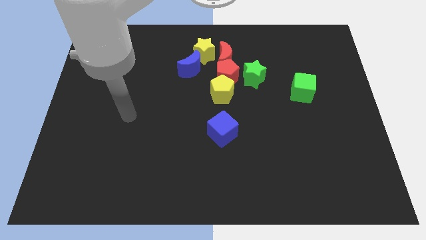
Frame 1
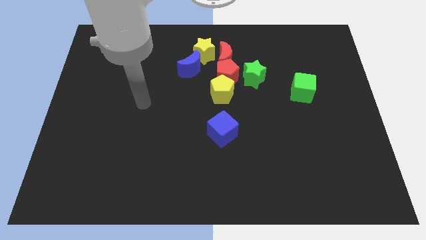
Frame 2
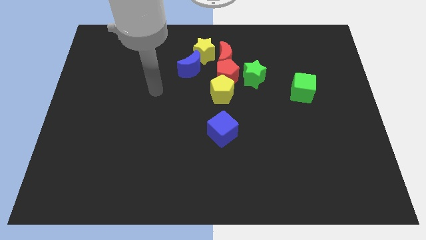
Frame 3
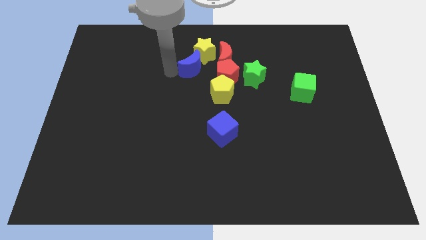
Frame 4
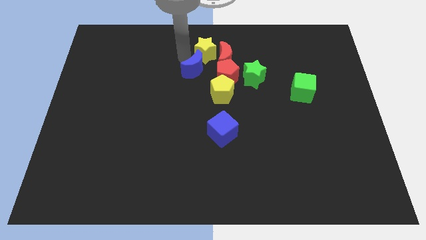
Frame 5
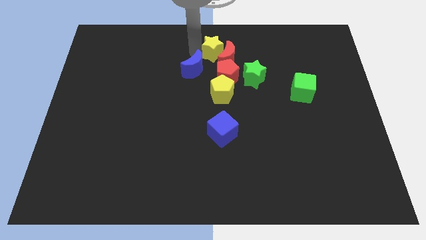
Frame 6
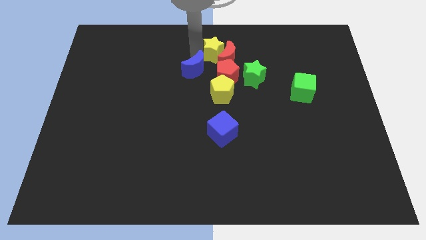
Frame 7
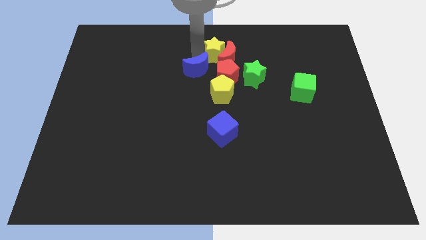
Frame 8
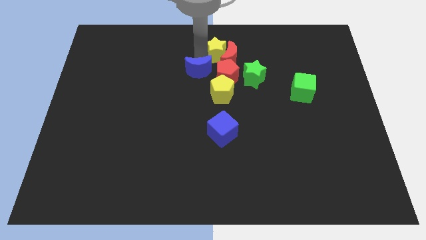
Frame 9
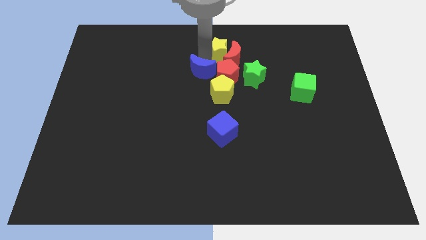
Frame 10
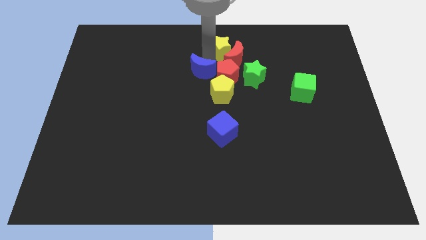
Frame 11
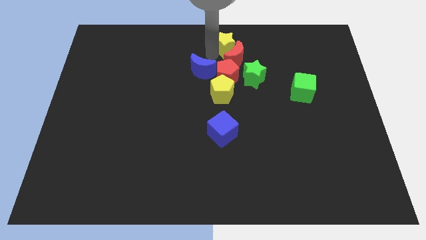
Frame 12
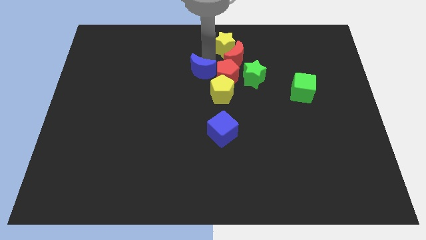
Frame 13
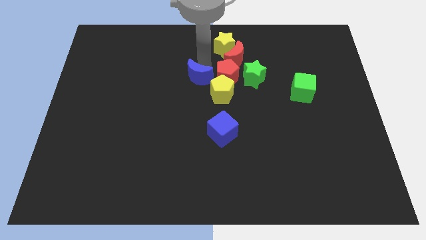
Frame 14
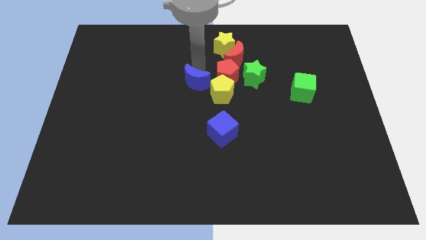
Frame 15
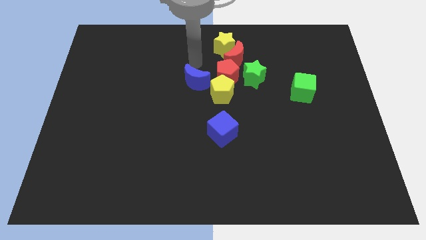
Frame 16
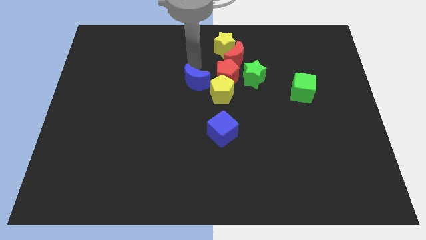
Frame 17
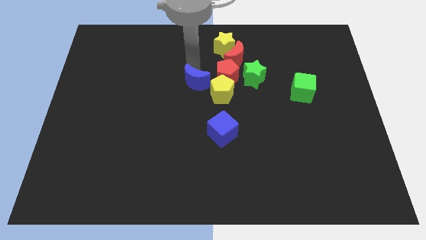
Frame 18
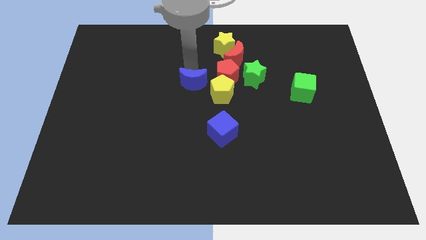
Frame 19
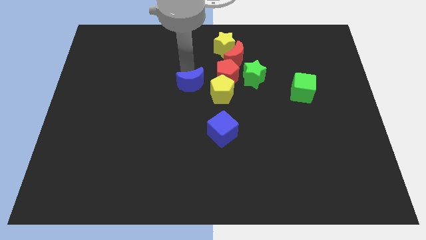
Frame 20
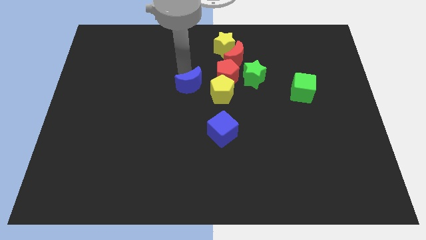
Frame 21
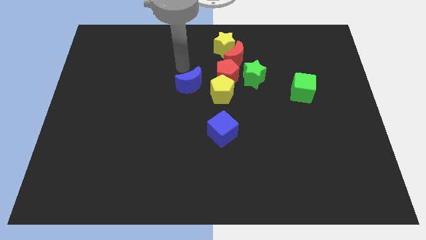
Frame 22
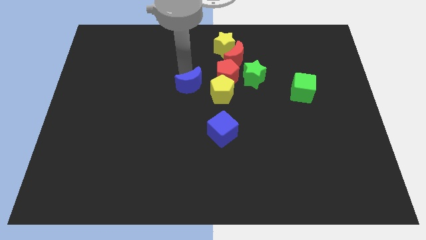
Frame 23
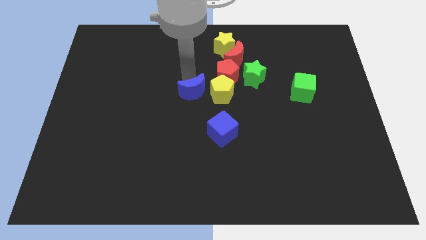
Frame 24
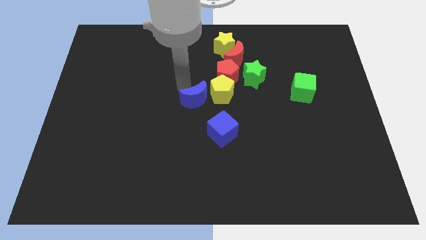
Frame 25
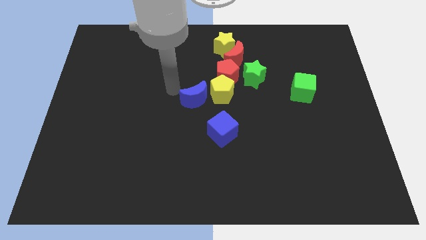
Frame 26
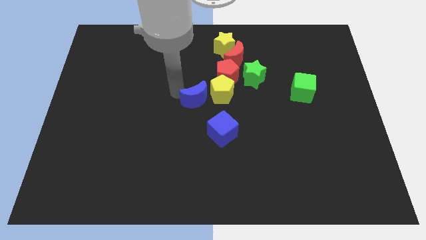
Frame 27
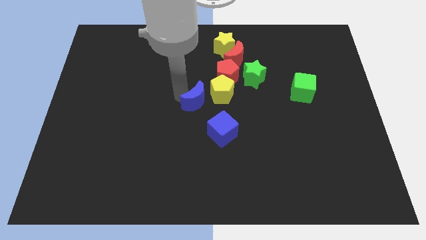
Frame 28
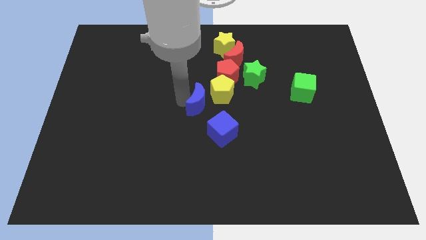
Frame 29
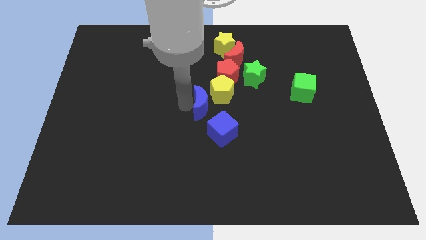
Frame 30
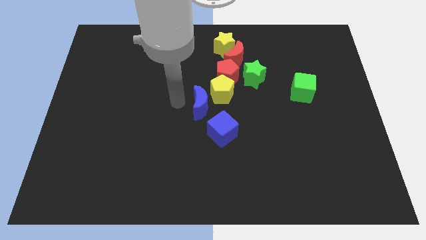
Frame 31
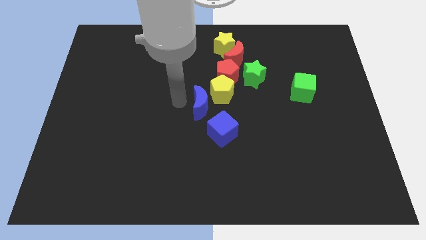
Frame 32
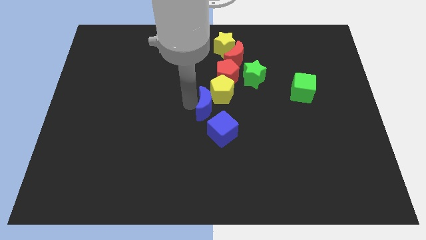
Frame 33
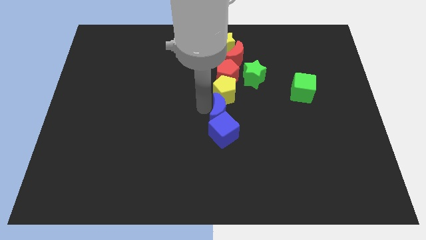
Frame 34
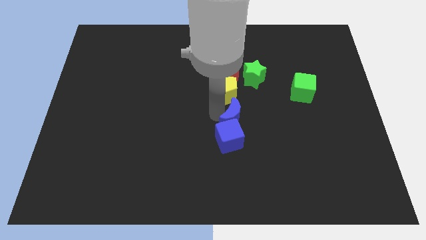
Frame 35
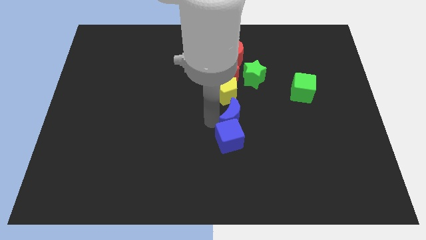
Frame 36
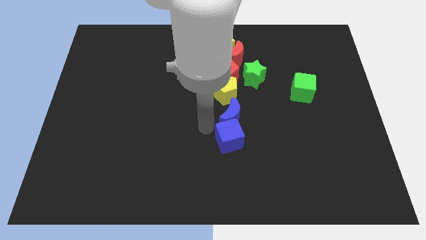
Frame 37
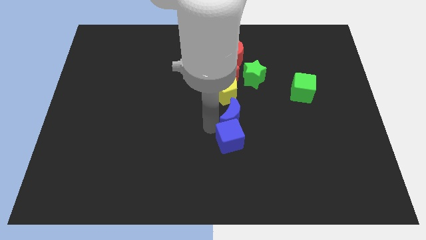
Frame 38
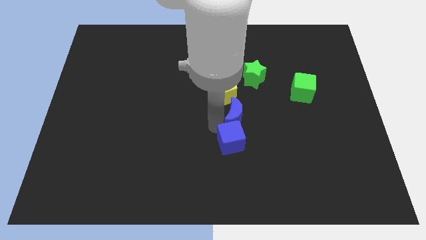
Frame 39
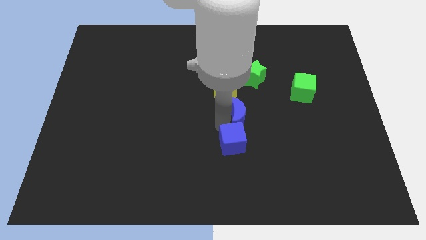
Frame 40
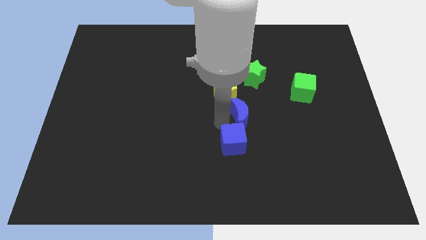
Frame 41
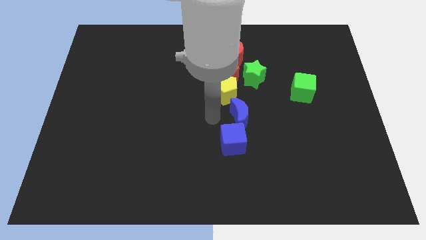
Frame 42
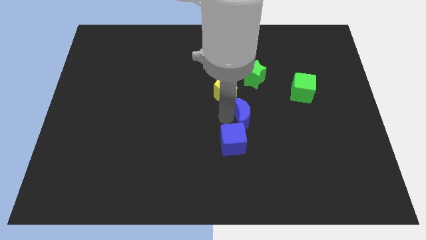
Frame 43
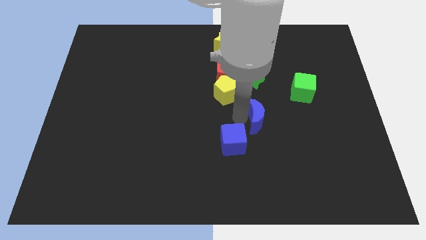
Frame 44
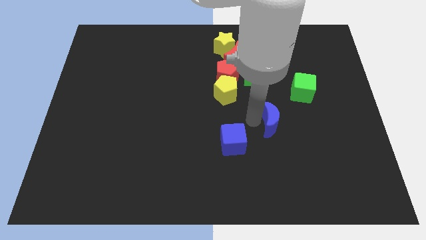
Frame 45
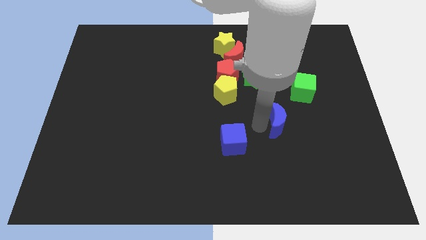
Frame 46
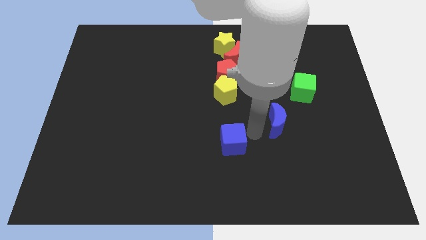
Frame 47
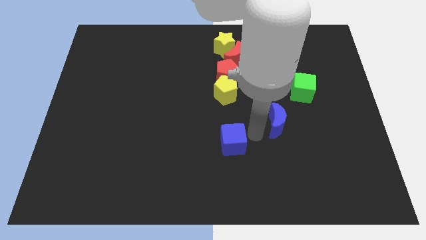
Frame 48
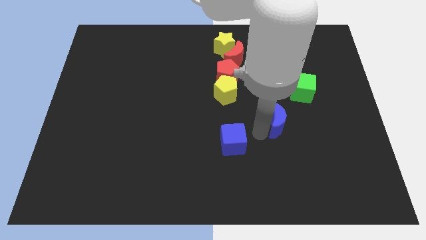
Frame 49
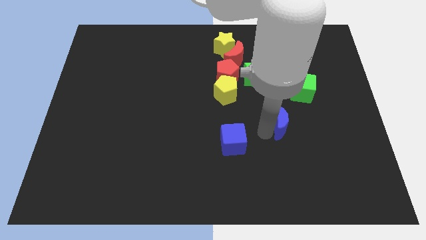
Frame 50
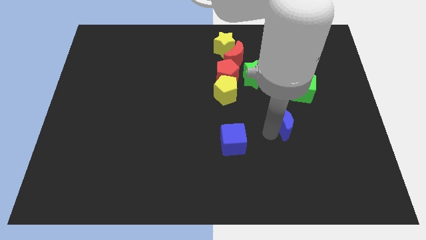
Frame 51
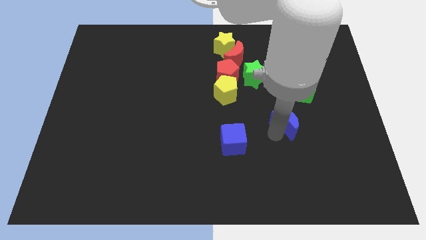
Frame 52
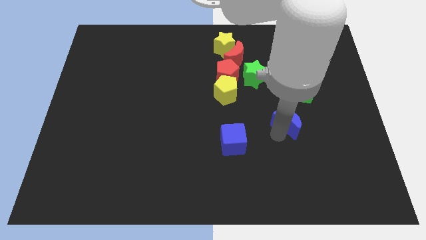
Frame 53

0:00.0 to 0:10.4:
slide the blue moon to the bottom of the green cube
